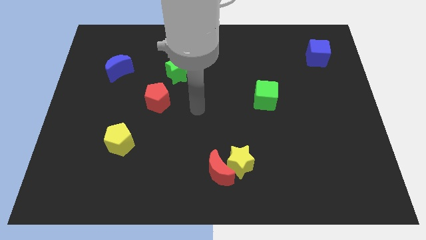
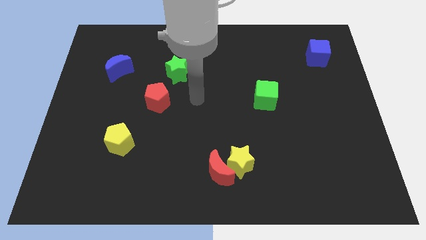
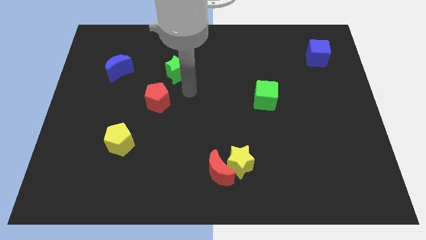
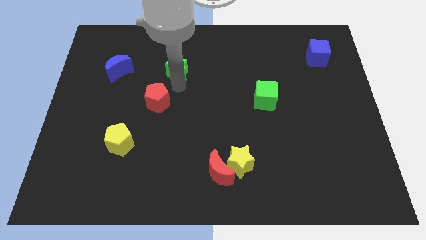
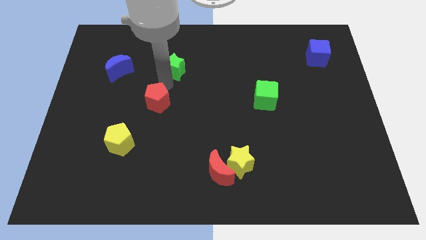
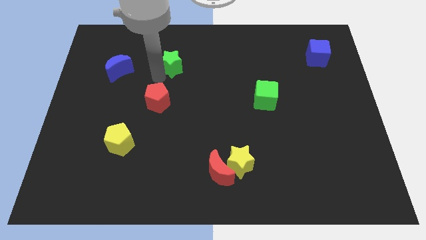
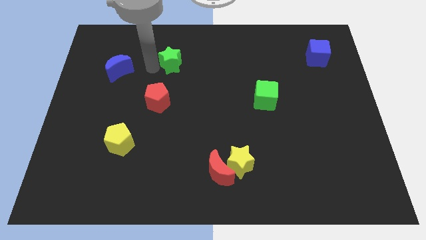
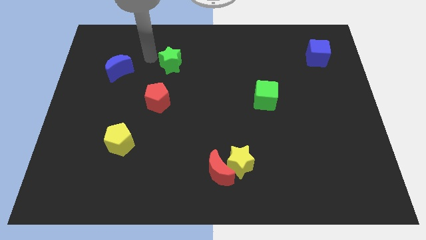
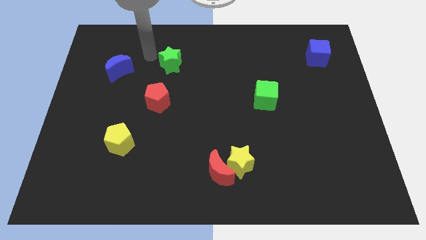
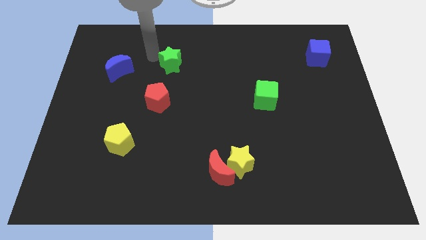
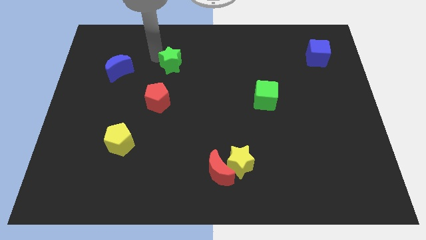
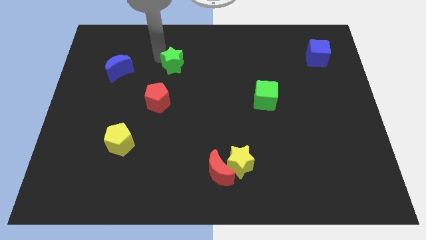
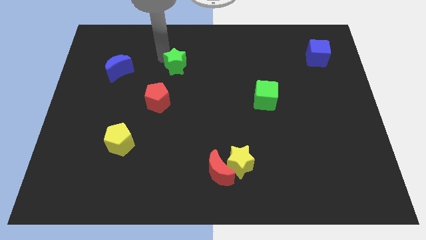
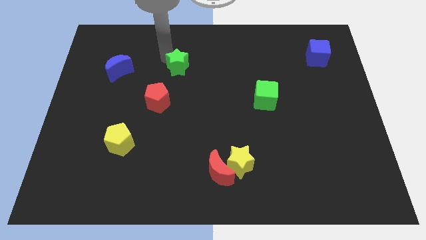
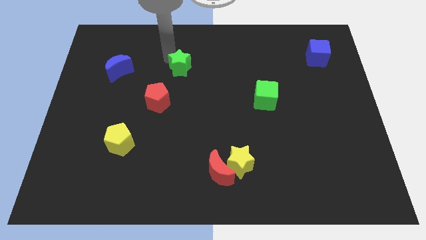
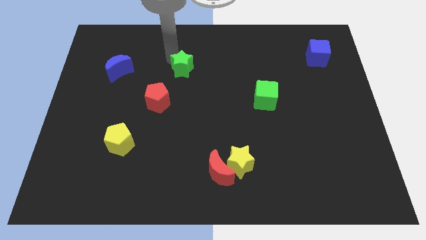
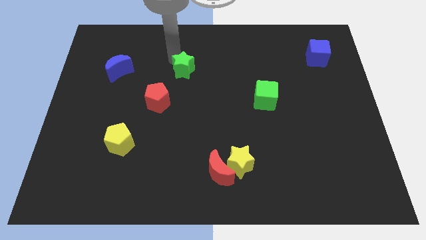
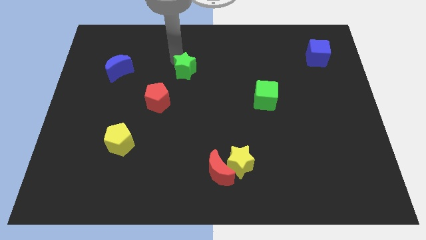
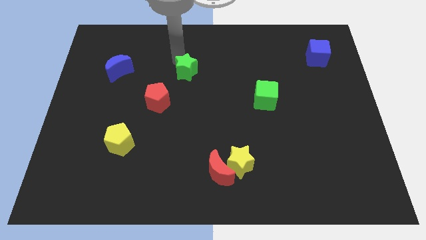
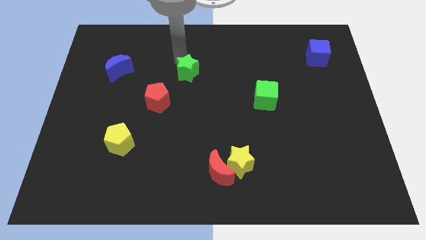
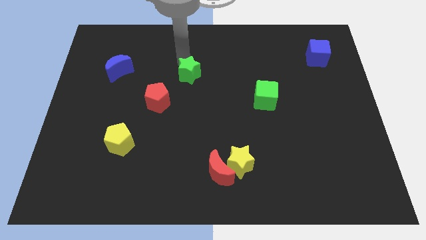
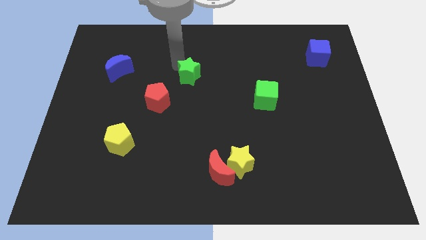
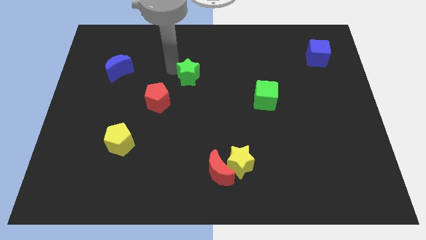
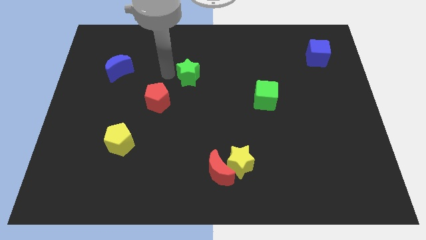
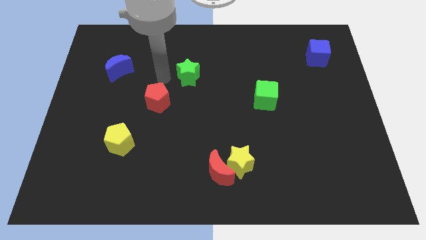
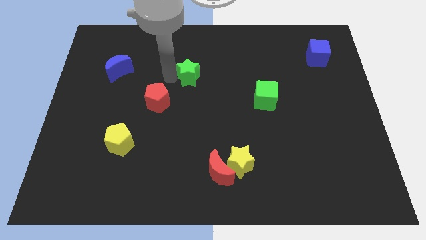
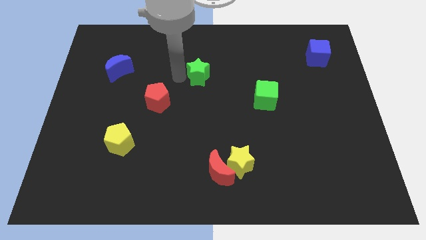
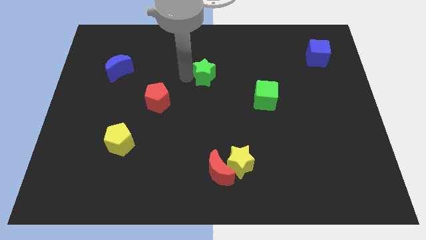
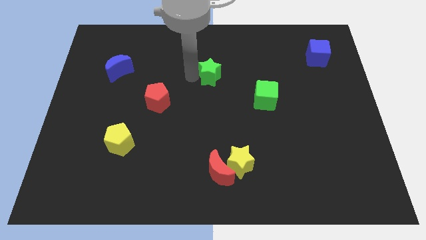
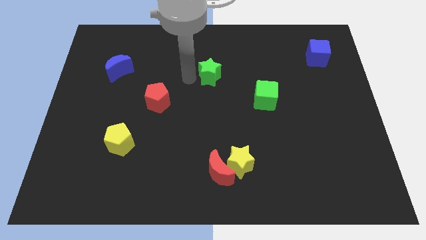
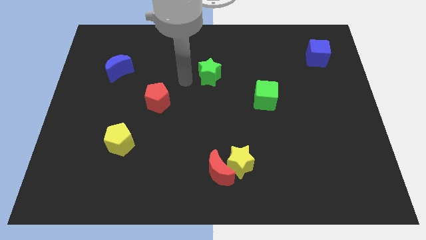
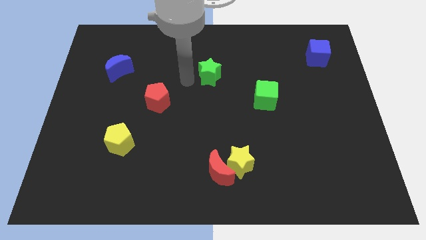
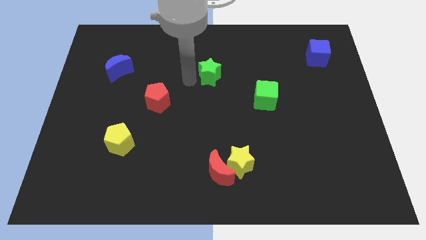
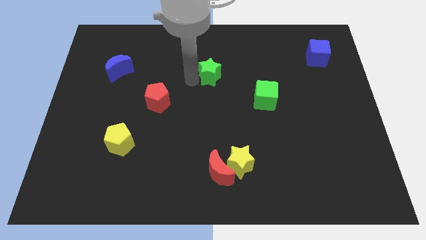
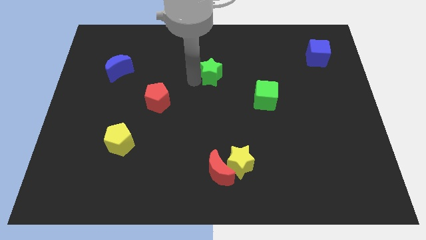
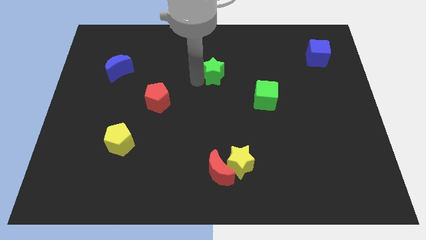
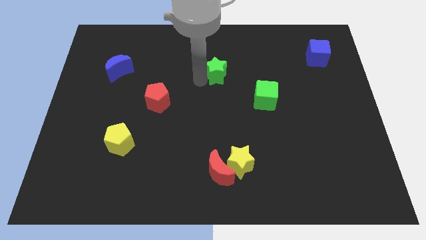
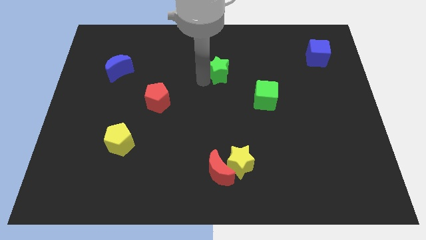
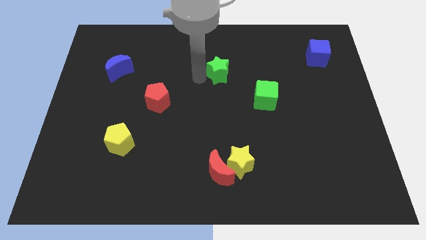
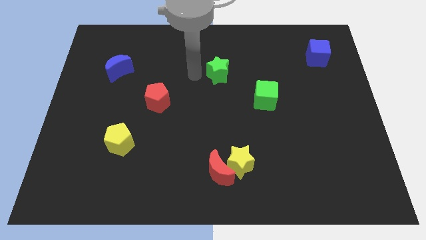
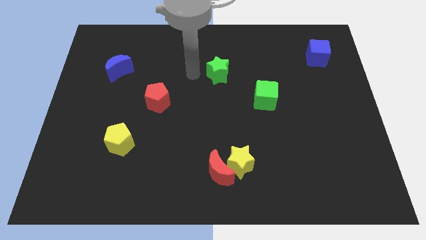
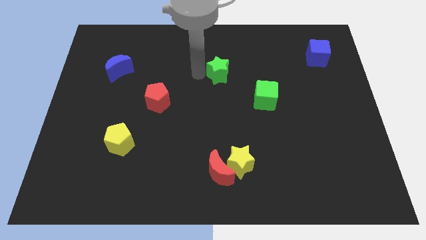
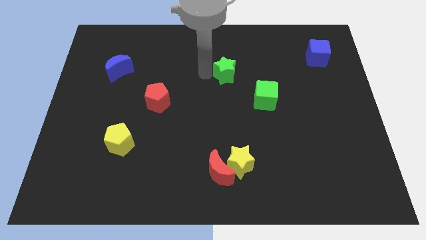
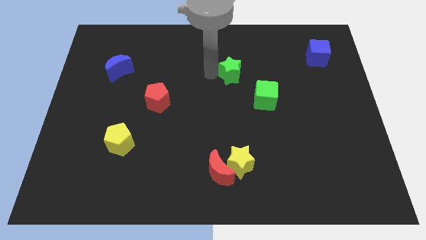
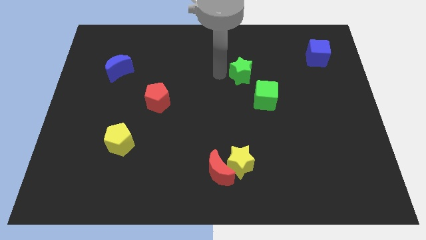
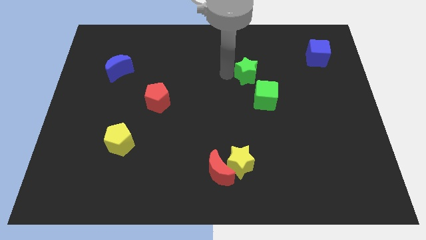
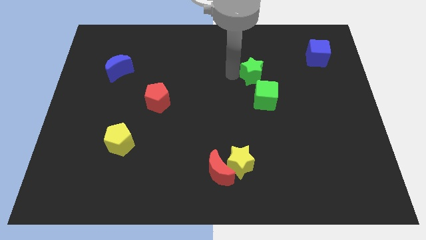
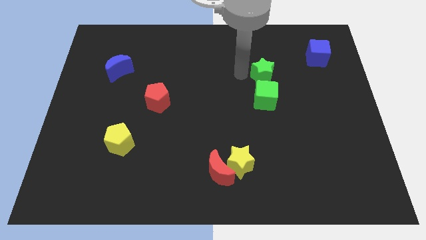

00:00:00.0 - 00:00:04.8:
slide the green star to the right

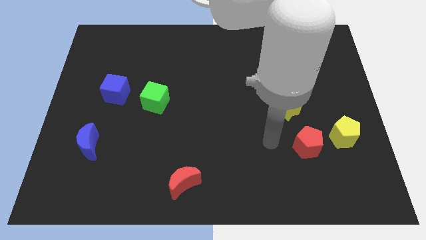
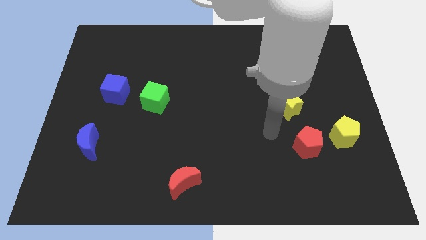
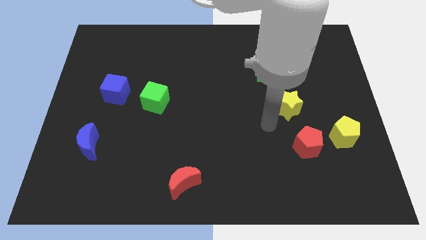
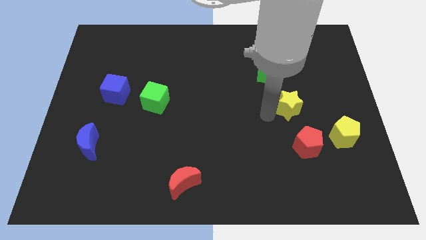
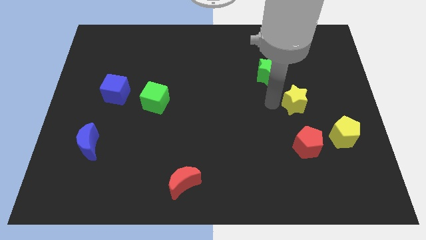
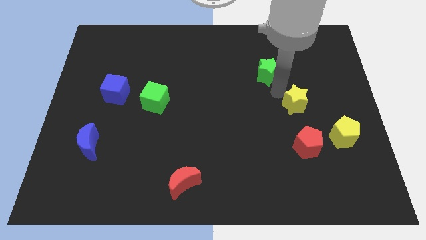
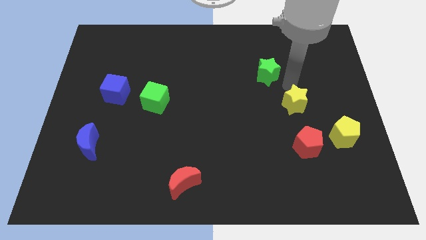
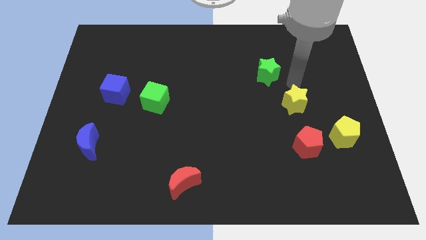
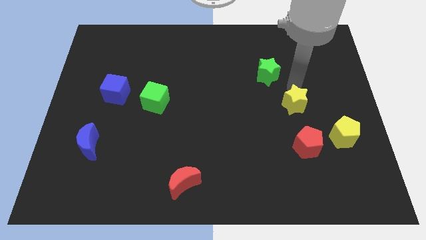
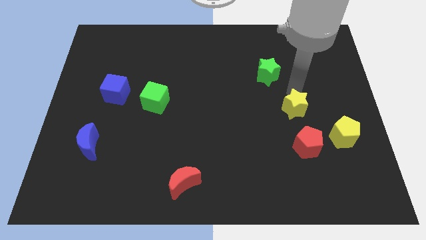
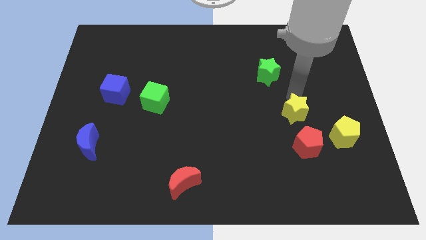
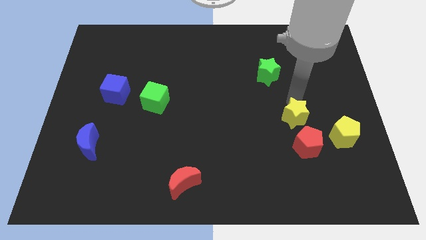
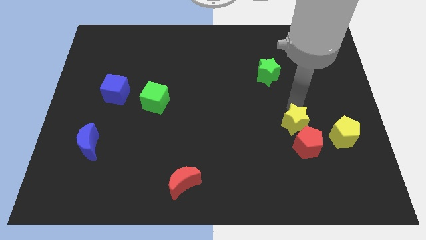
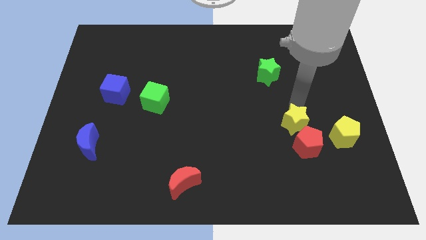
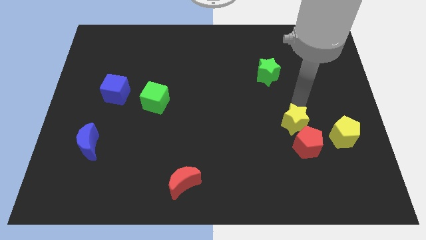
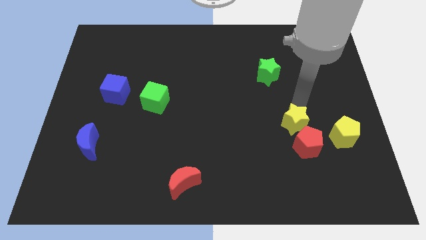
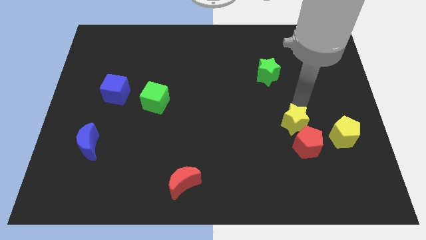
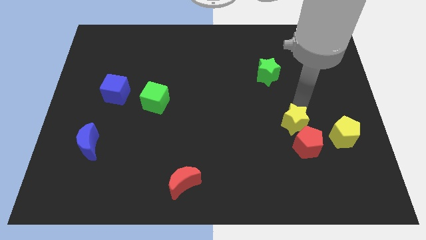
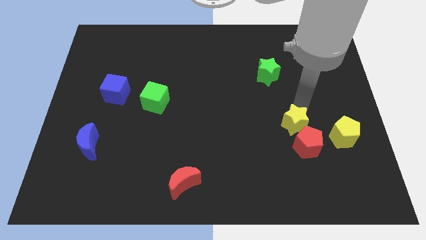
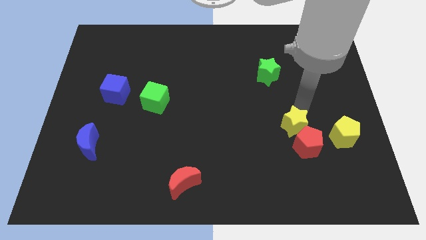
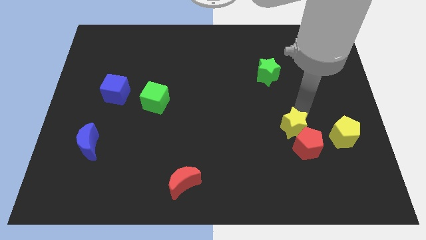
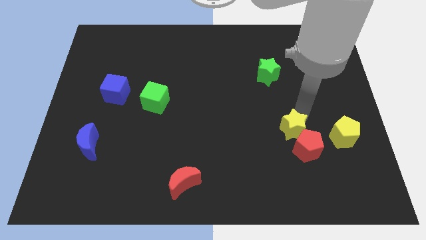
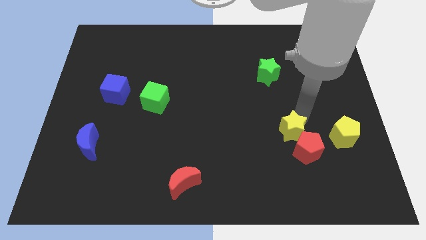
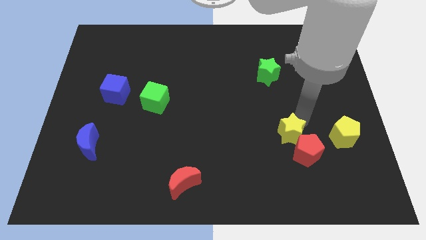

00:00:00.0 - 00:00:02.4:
push the yellow star a bit downwards

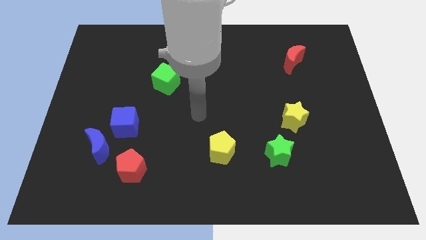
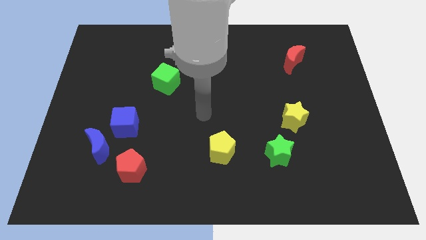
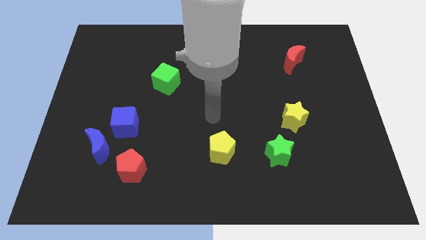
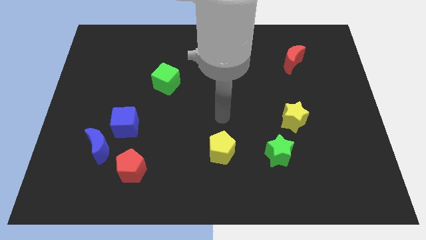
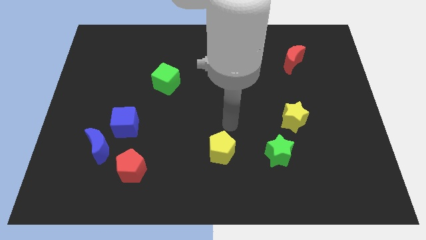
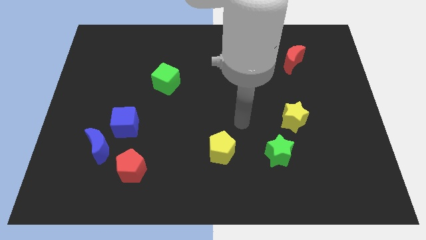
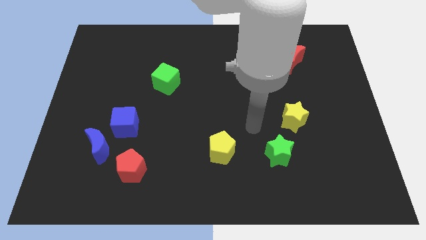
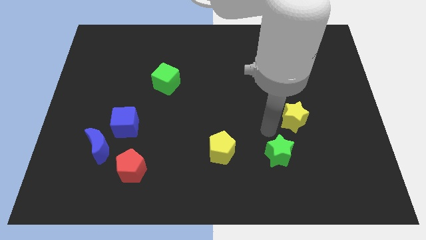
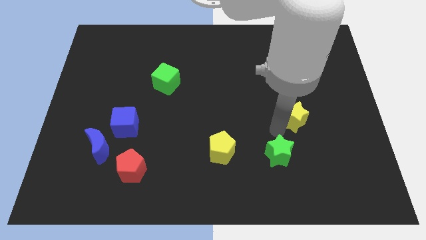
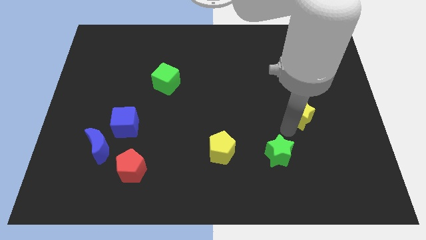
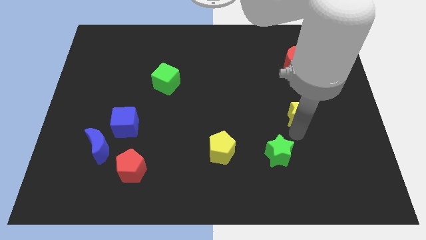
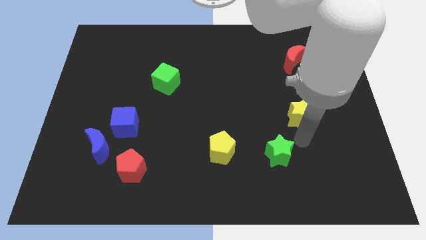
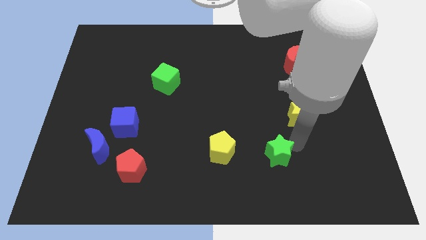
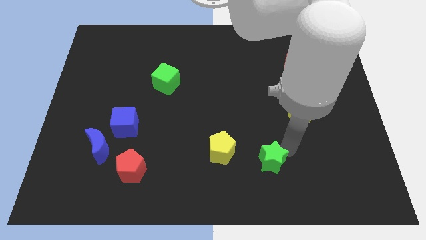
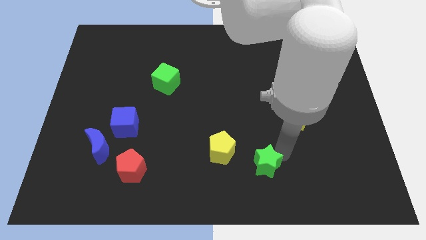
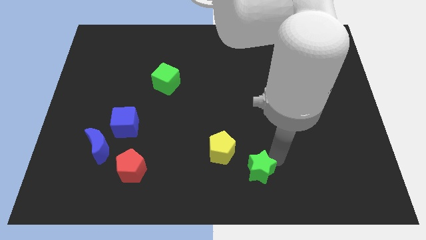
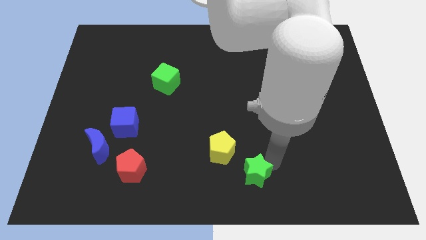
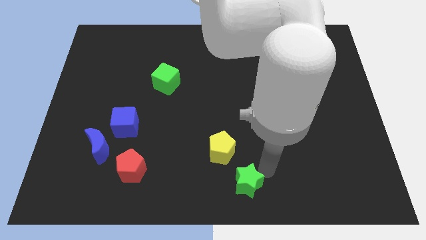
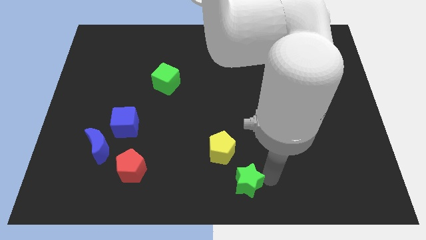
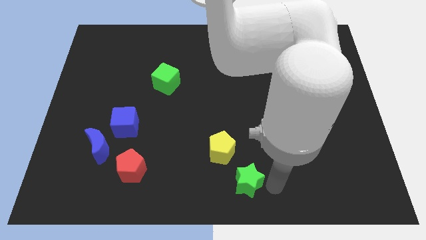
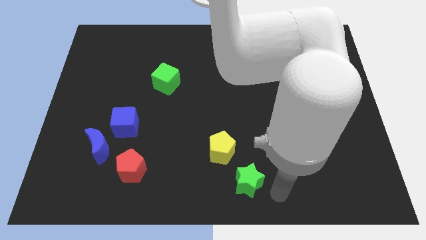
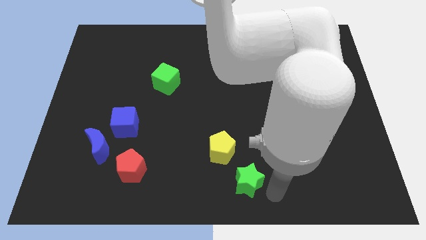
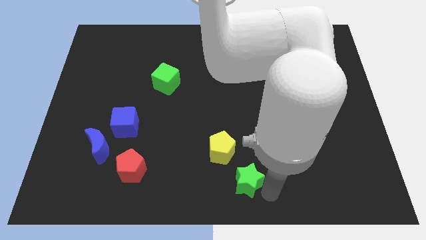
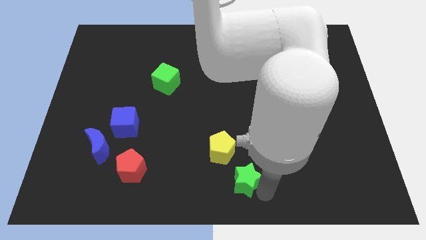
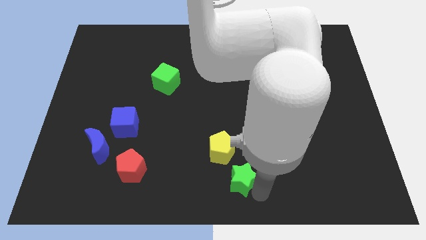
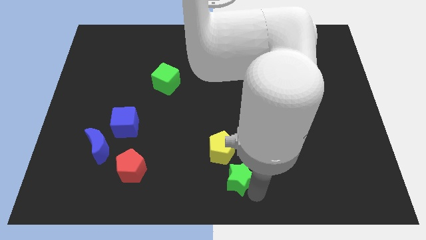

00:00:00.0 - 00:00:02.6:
push the green star to the left a little bit
